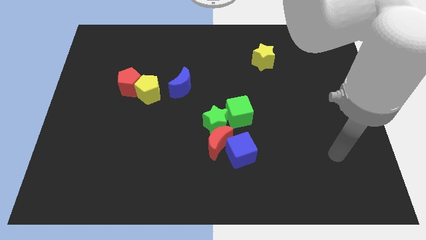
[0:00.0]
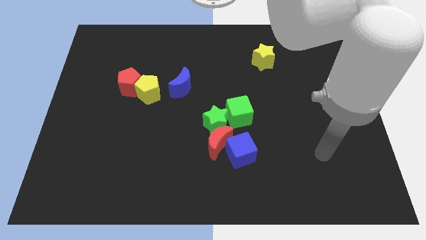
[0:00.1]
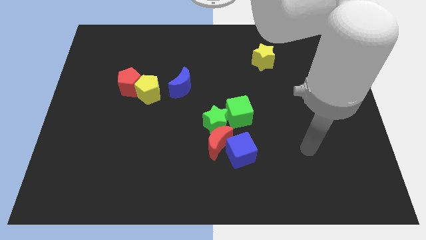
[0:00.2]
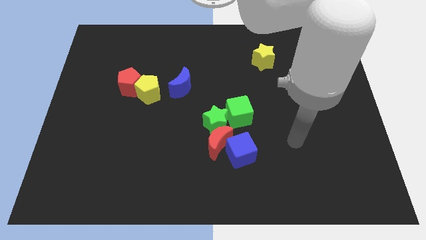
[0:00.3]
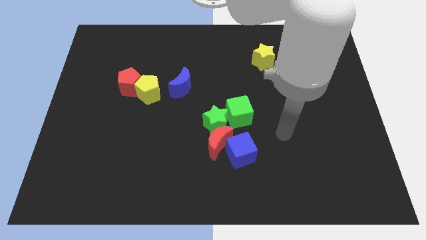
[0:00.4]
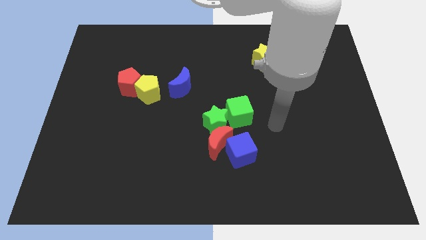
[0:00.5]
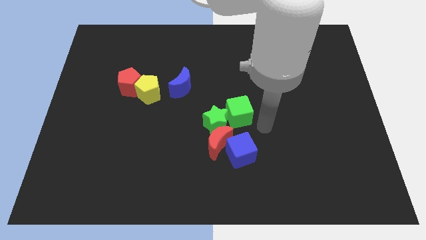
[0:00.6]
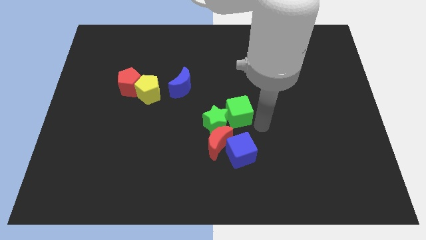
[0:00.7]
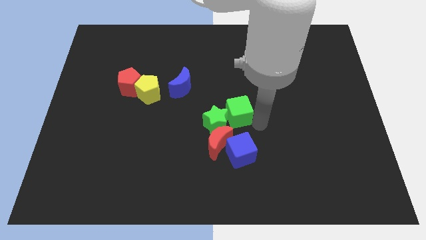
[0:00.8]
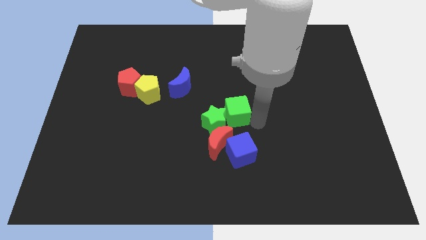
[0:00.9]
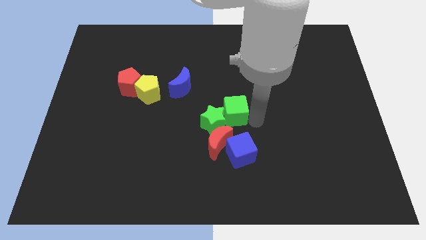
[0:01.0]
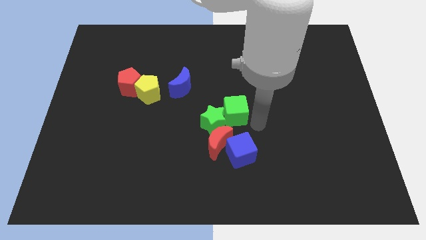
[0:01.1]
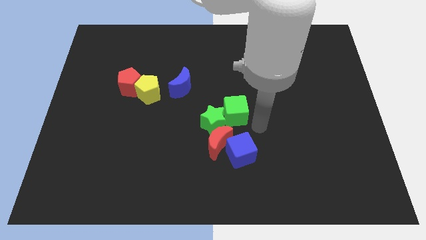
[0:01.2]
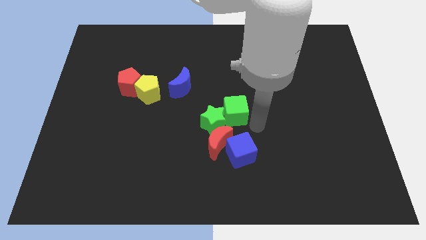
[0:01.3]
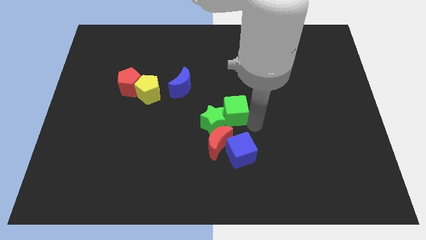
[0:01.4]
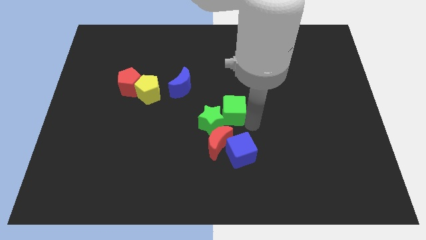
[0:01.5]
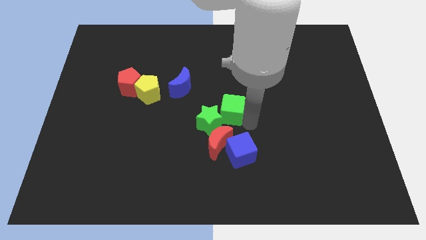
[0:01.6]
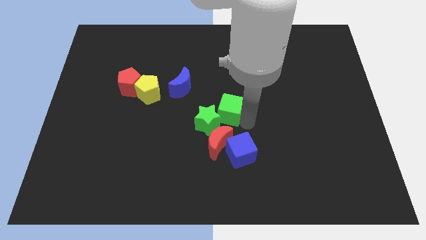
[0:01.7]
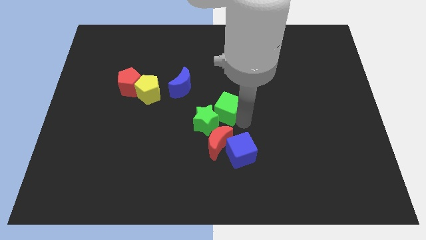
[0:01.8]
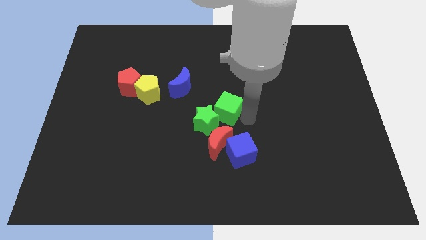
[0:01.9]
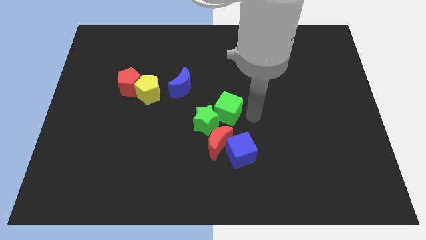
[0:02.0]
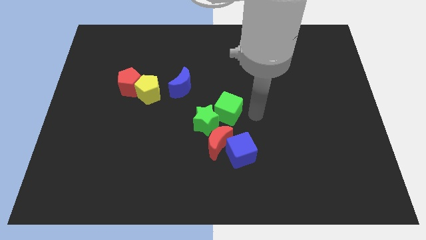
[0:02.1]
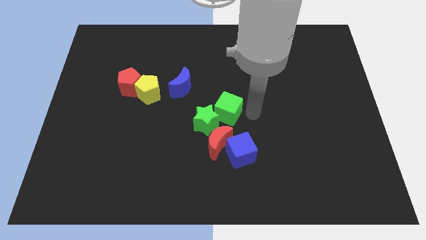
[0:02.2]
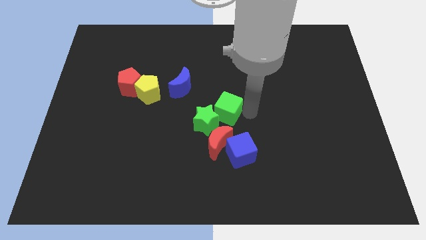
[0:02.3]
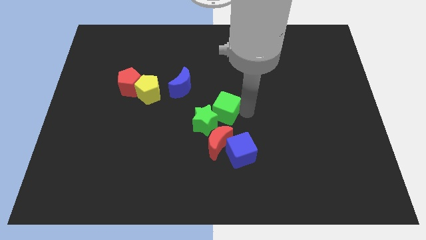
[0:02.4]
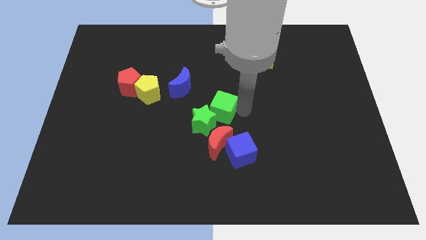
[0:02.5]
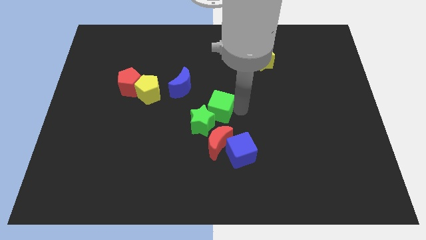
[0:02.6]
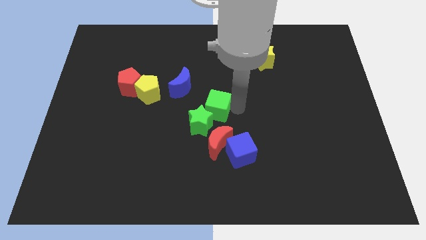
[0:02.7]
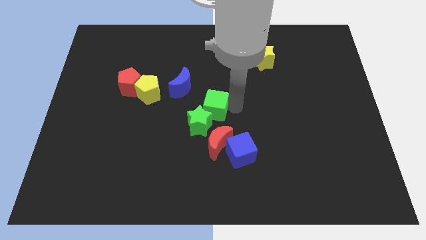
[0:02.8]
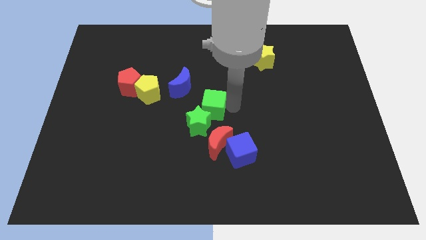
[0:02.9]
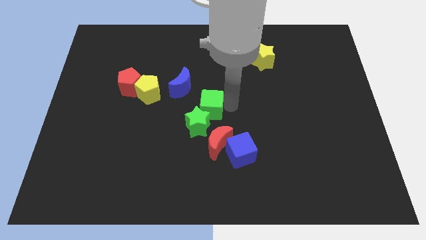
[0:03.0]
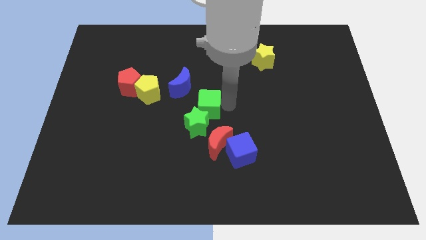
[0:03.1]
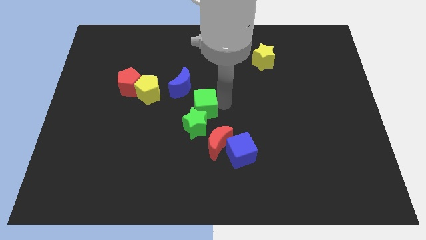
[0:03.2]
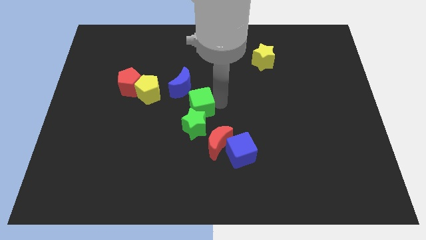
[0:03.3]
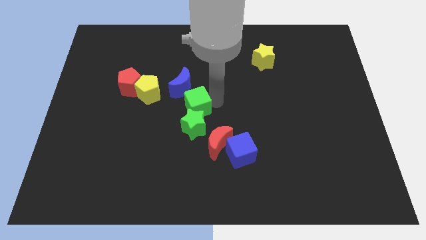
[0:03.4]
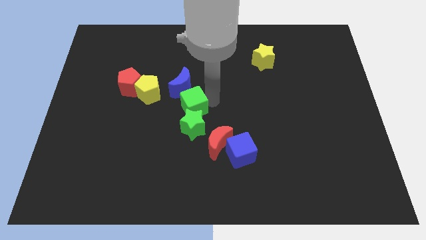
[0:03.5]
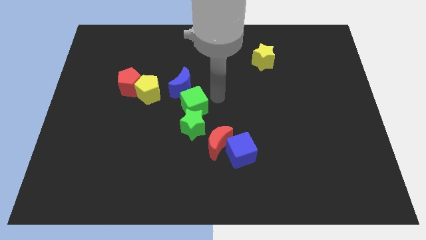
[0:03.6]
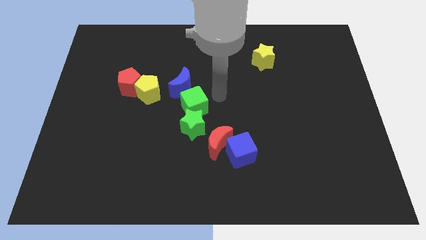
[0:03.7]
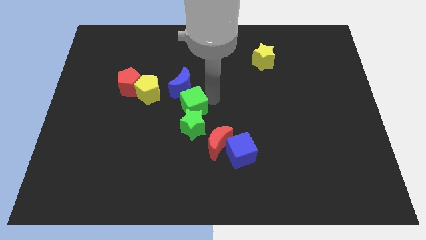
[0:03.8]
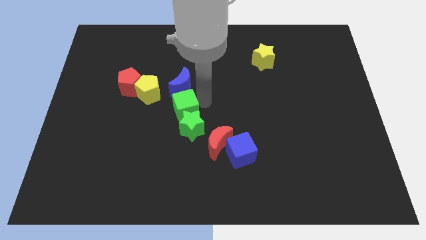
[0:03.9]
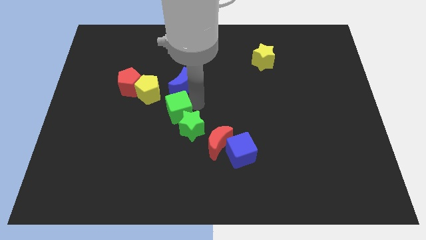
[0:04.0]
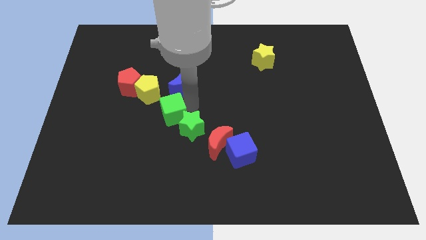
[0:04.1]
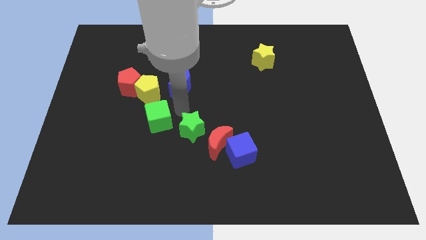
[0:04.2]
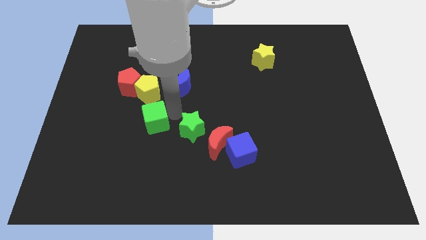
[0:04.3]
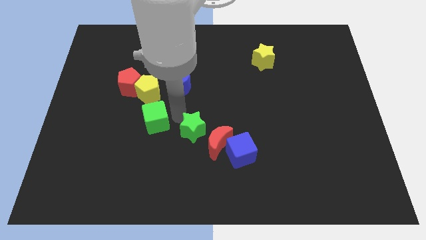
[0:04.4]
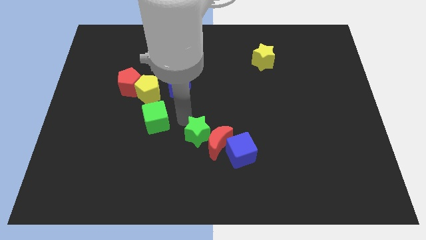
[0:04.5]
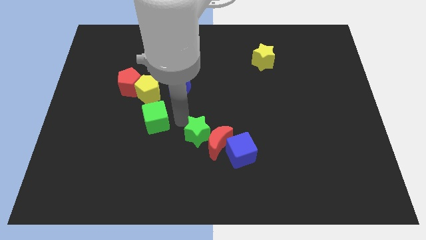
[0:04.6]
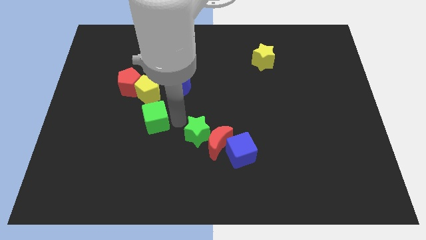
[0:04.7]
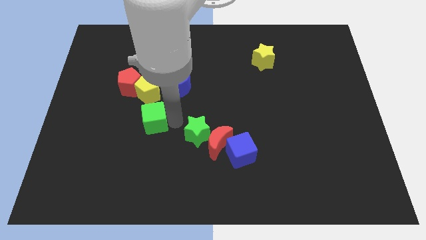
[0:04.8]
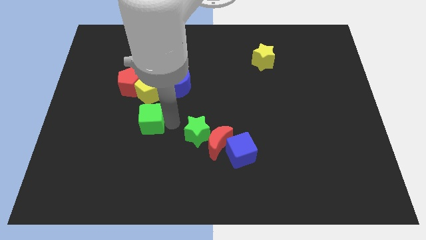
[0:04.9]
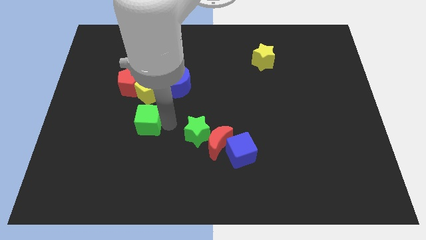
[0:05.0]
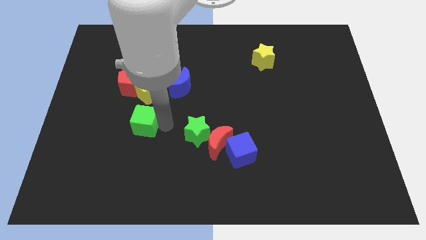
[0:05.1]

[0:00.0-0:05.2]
push the green cube below the red pentagon

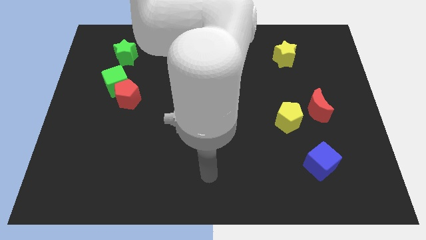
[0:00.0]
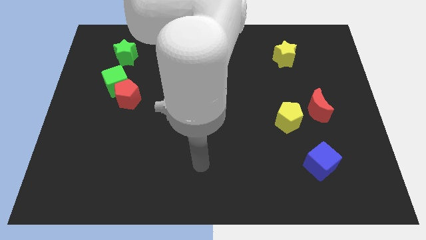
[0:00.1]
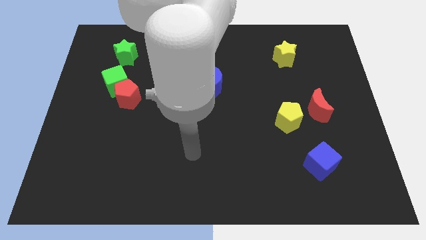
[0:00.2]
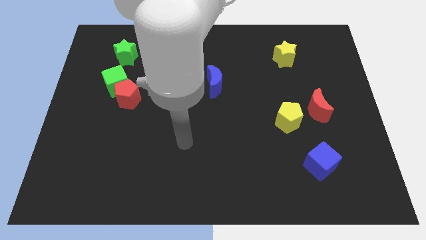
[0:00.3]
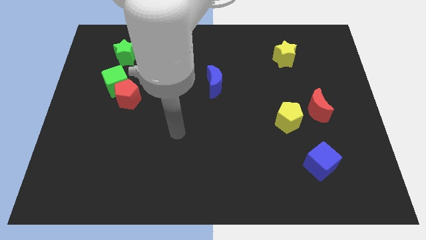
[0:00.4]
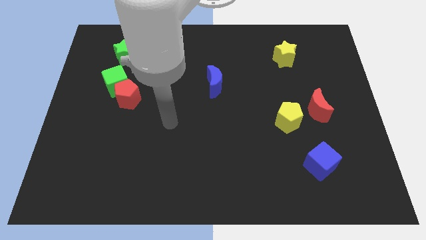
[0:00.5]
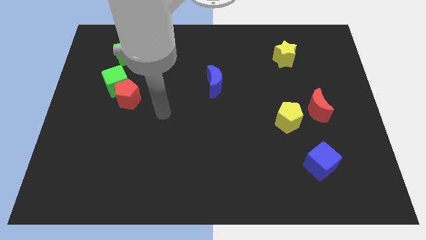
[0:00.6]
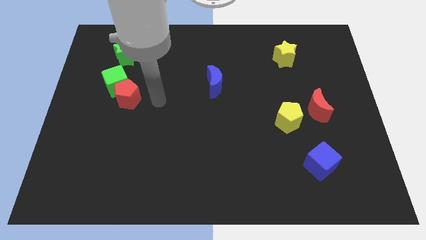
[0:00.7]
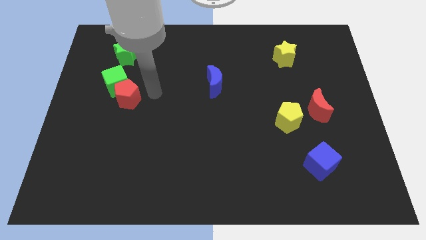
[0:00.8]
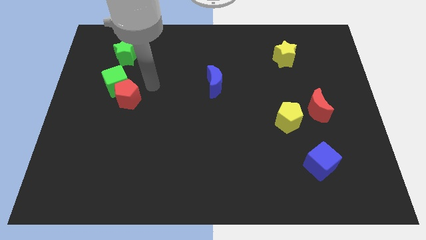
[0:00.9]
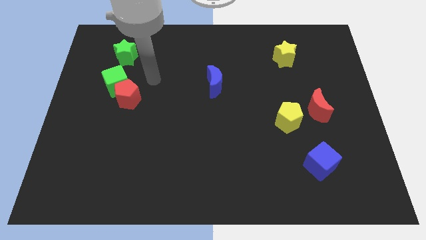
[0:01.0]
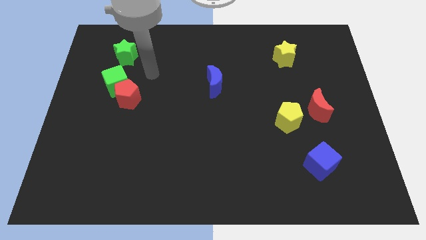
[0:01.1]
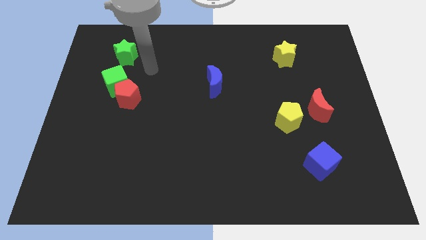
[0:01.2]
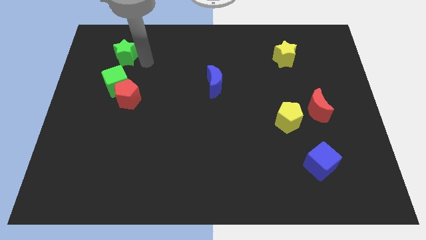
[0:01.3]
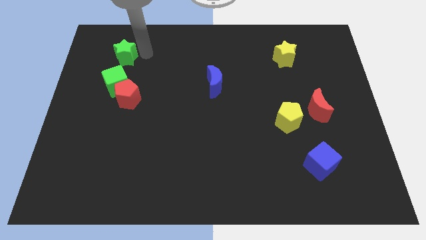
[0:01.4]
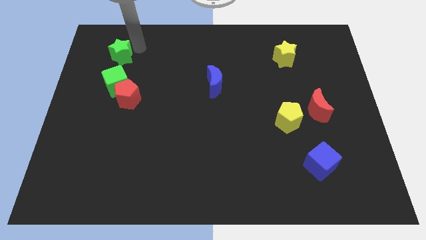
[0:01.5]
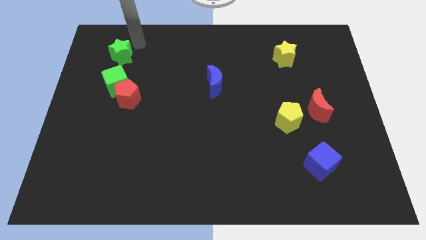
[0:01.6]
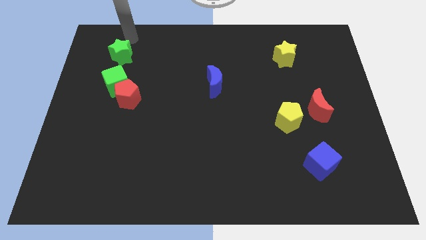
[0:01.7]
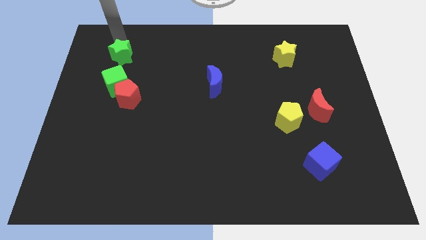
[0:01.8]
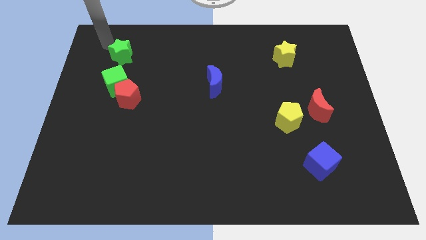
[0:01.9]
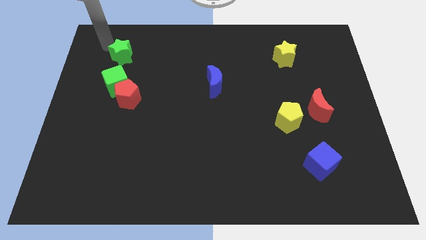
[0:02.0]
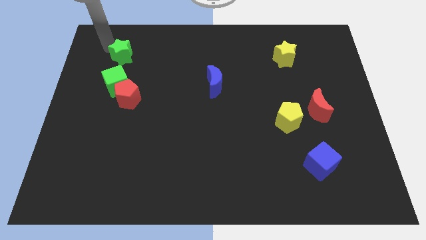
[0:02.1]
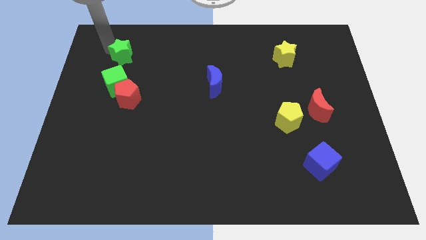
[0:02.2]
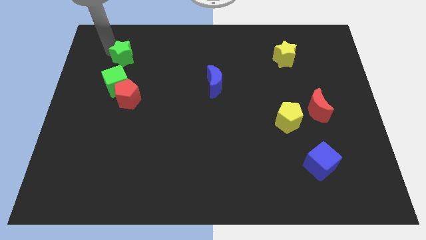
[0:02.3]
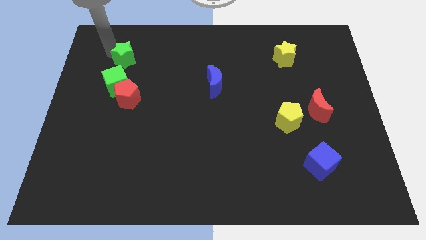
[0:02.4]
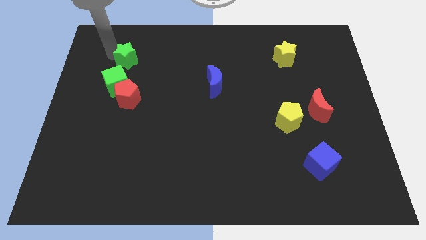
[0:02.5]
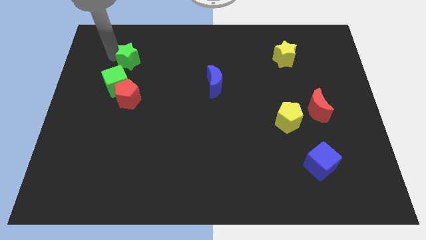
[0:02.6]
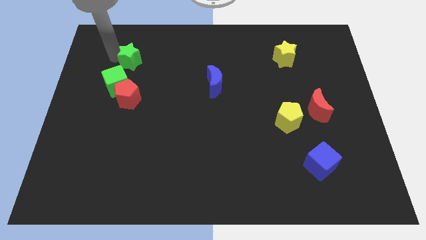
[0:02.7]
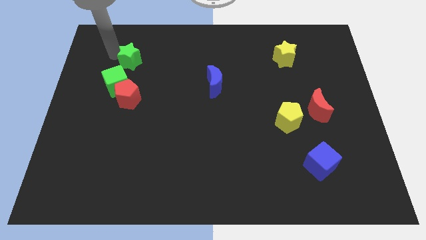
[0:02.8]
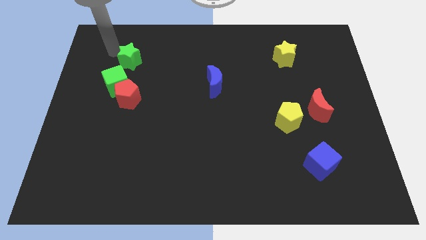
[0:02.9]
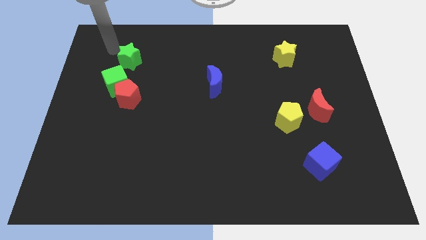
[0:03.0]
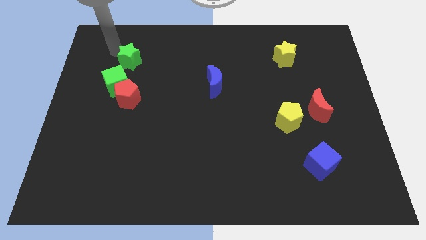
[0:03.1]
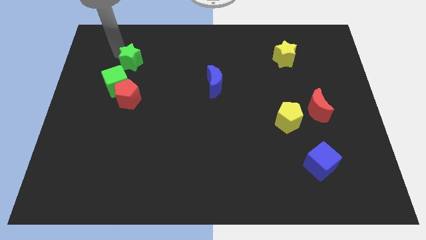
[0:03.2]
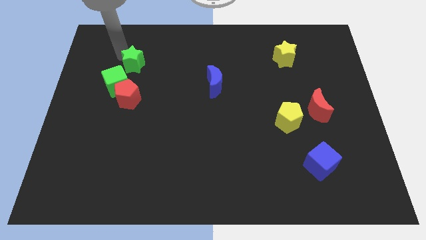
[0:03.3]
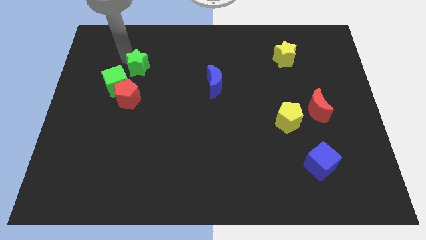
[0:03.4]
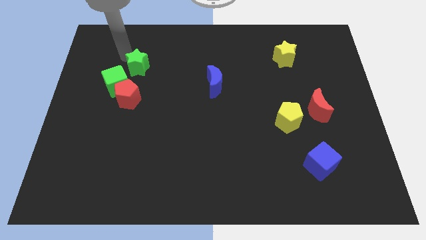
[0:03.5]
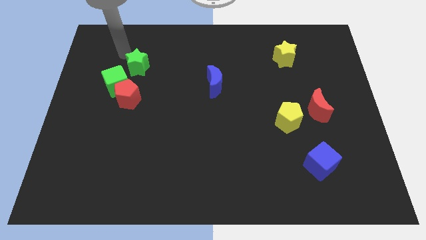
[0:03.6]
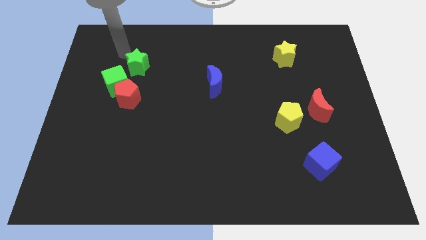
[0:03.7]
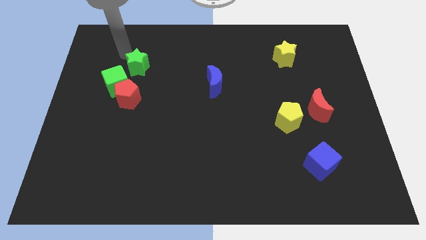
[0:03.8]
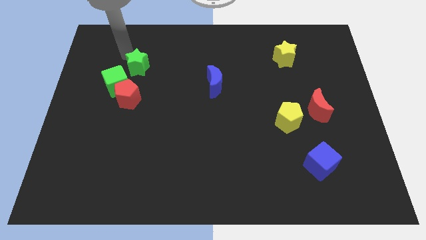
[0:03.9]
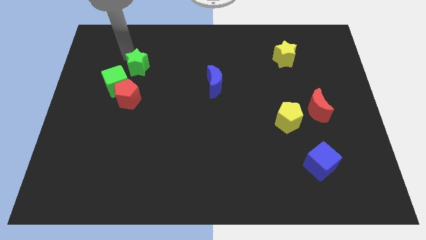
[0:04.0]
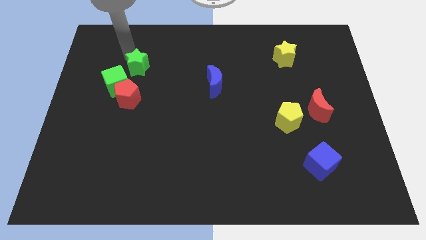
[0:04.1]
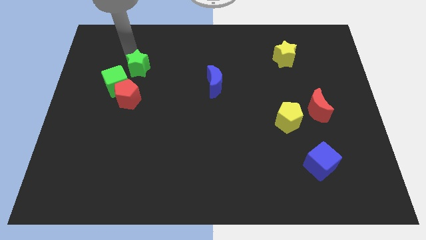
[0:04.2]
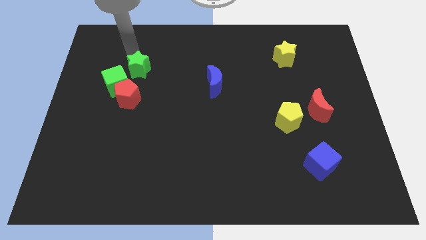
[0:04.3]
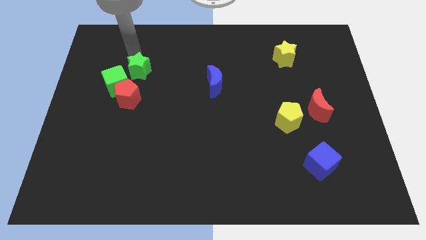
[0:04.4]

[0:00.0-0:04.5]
move the green star just right of the green cube
